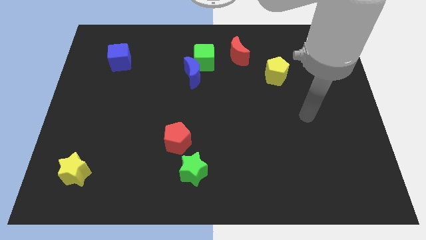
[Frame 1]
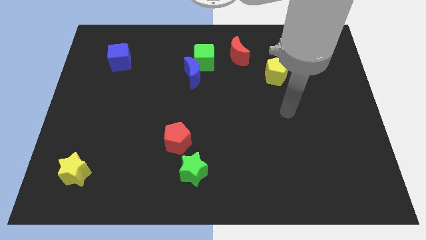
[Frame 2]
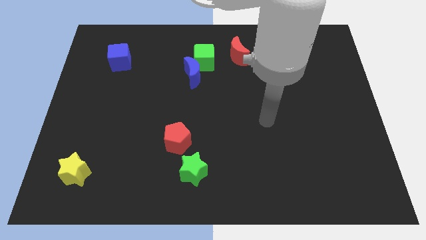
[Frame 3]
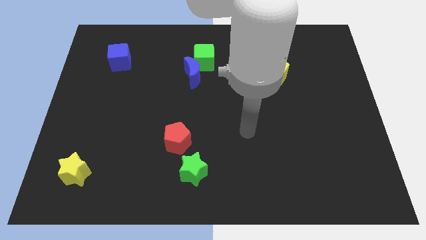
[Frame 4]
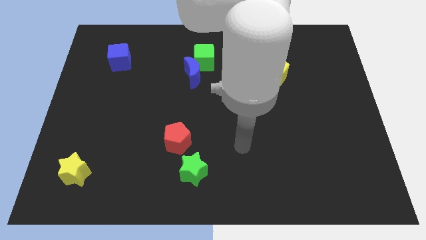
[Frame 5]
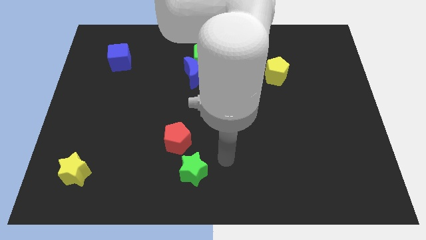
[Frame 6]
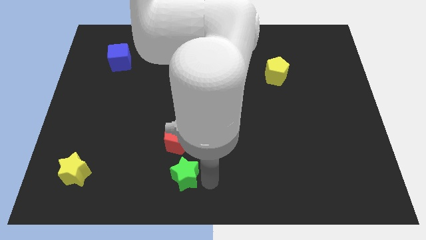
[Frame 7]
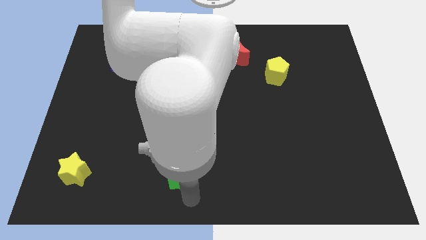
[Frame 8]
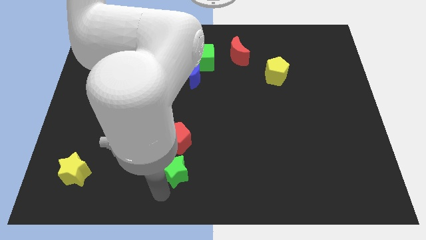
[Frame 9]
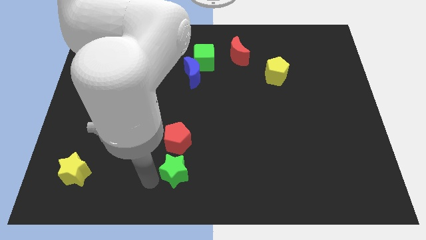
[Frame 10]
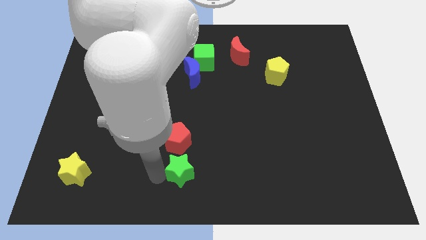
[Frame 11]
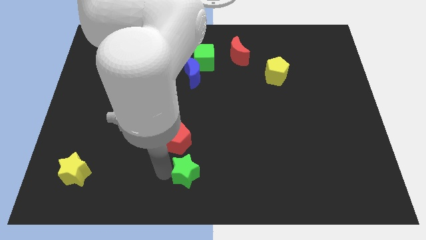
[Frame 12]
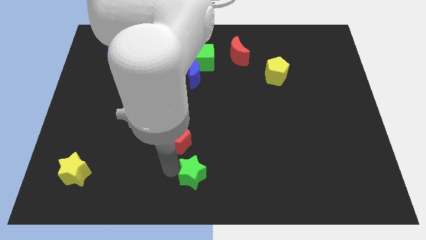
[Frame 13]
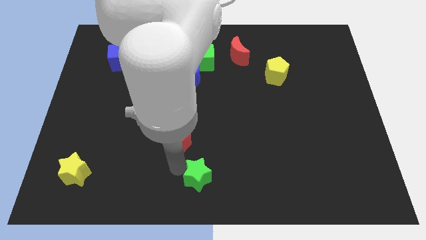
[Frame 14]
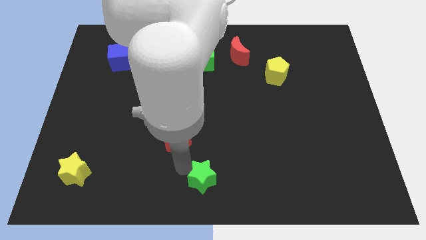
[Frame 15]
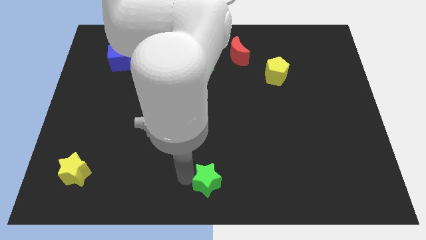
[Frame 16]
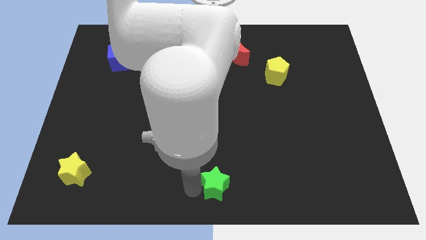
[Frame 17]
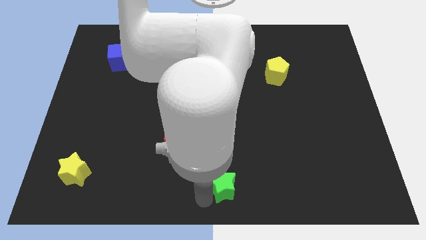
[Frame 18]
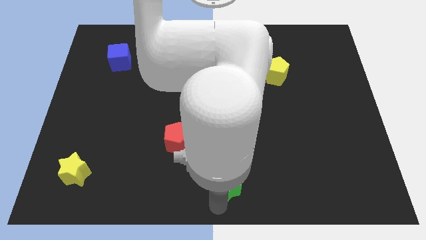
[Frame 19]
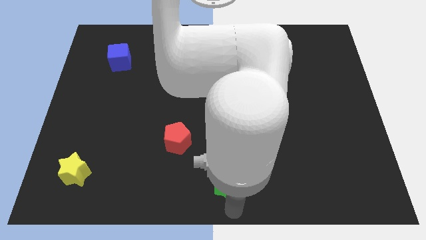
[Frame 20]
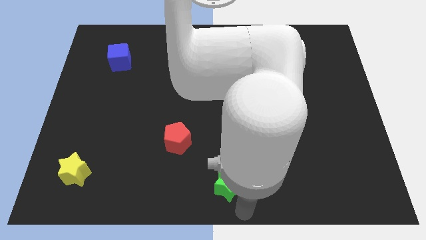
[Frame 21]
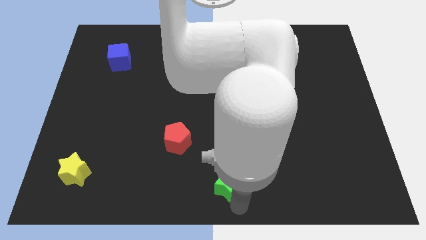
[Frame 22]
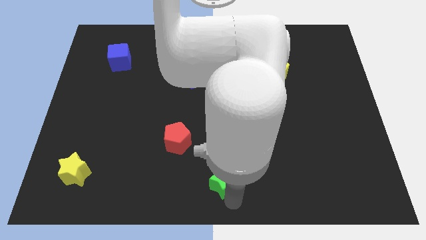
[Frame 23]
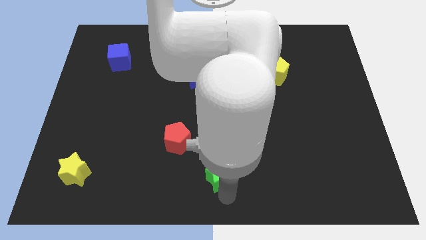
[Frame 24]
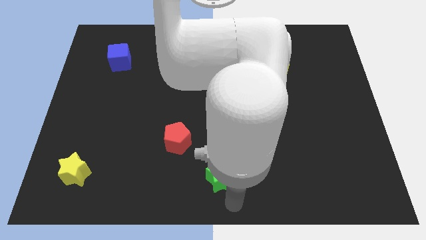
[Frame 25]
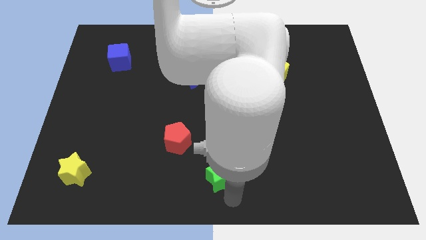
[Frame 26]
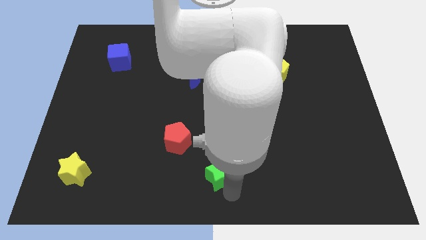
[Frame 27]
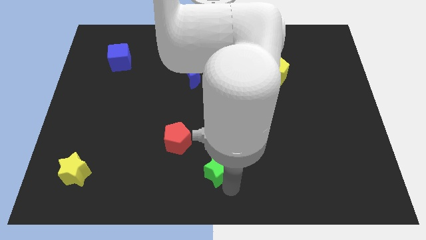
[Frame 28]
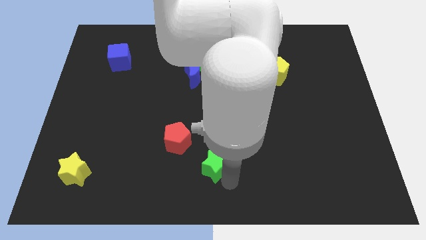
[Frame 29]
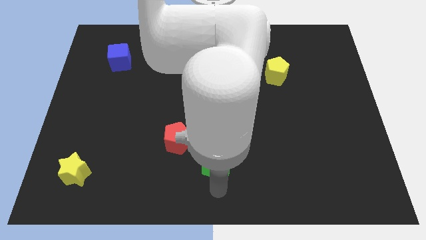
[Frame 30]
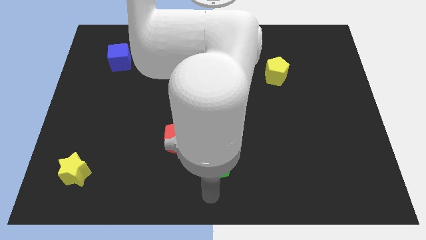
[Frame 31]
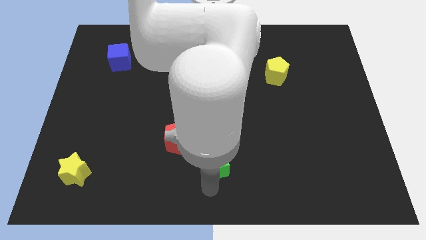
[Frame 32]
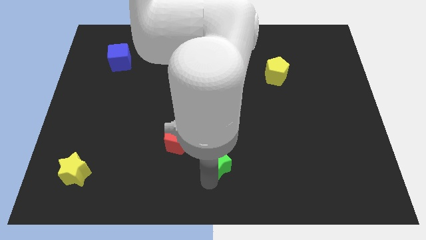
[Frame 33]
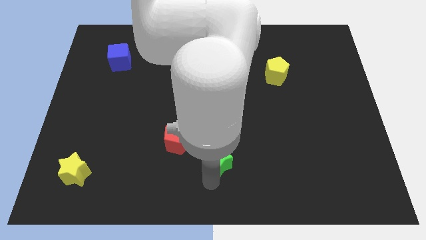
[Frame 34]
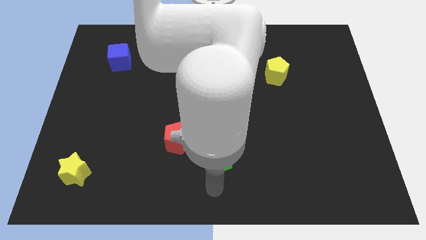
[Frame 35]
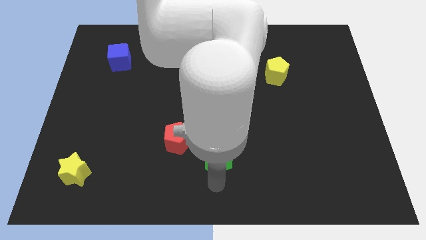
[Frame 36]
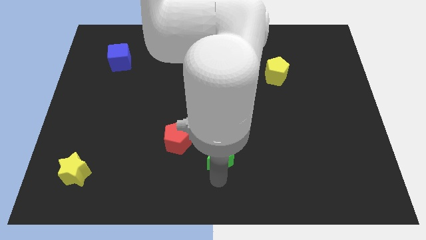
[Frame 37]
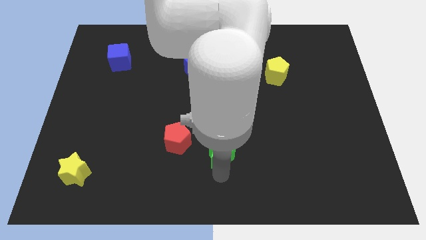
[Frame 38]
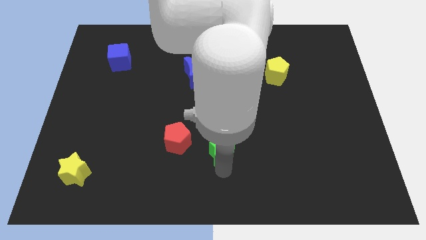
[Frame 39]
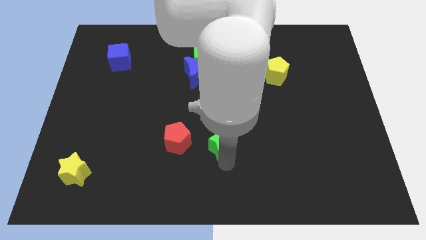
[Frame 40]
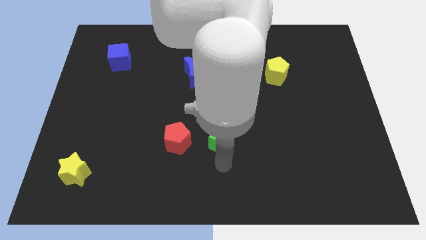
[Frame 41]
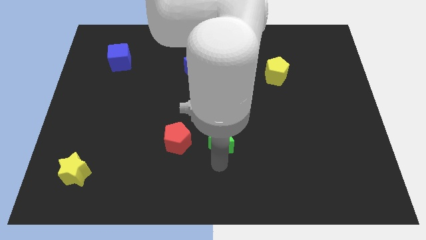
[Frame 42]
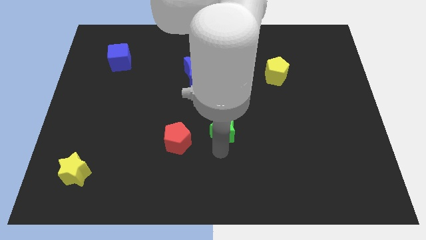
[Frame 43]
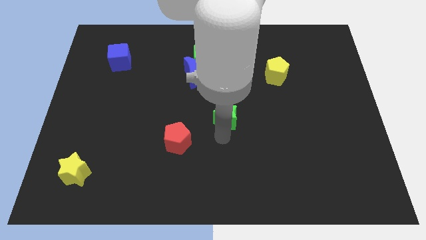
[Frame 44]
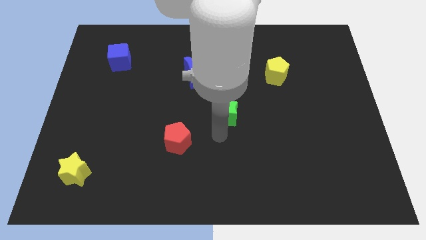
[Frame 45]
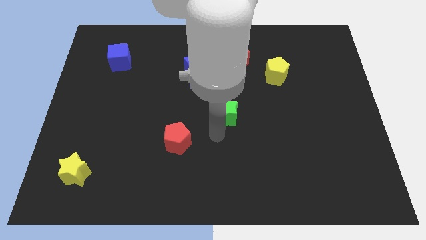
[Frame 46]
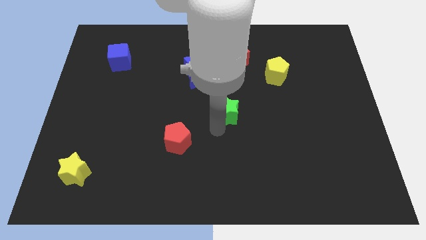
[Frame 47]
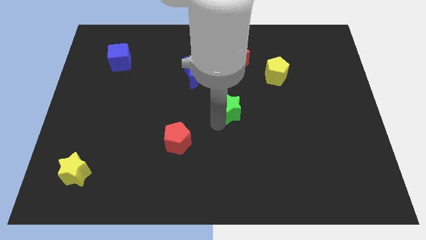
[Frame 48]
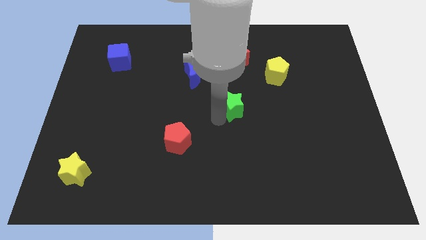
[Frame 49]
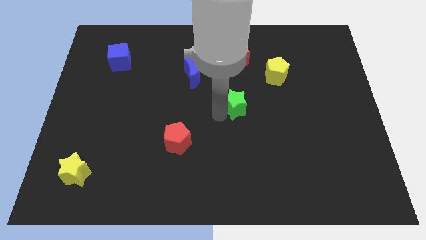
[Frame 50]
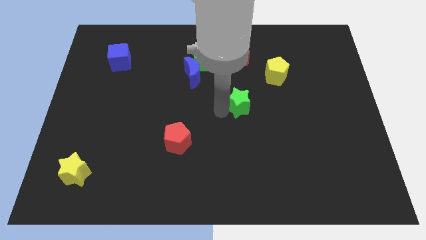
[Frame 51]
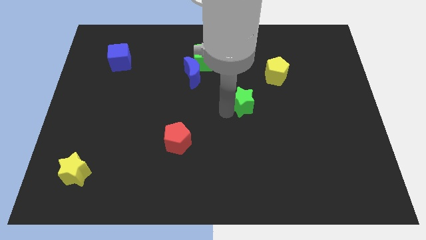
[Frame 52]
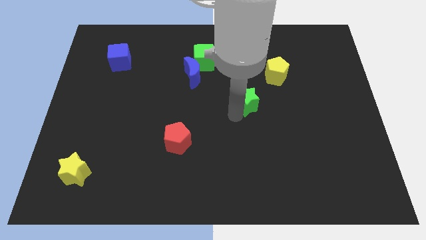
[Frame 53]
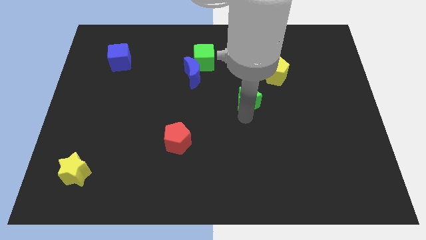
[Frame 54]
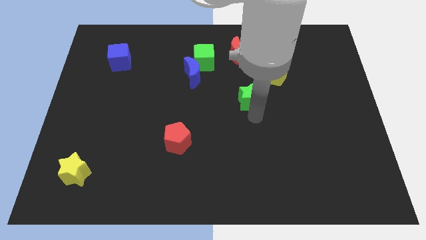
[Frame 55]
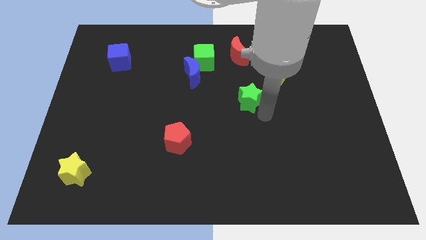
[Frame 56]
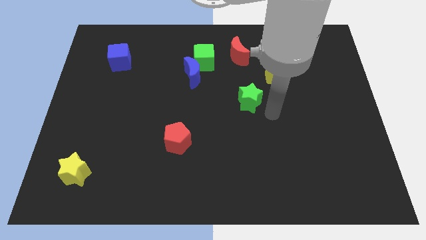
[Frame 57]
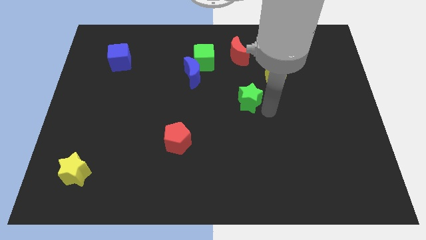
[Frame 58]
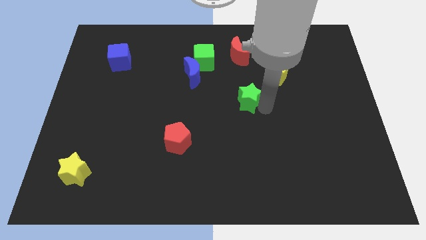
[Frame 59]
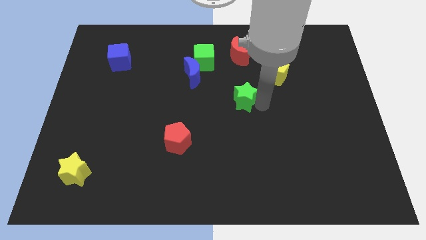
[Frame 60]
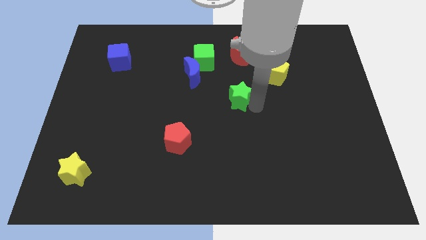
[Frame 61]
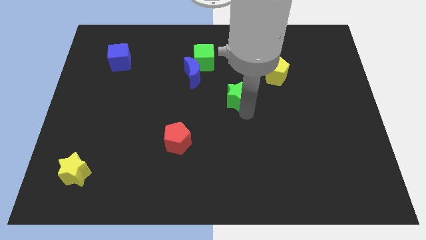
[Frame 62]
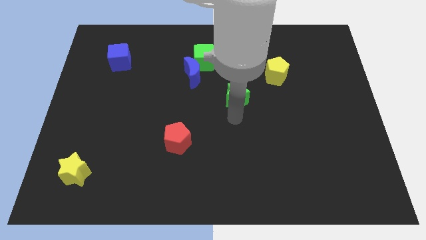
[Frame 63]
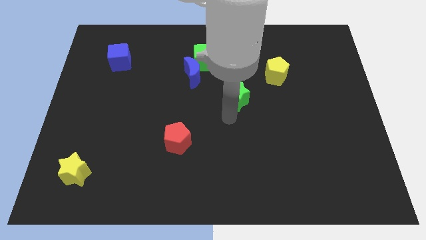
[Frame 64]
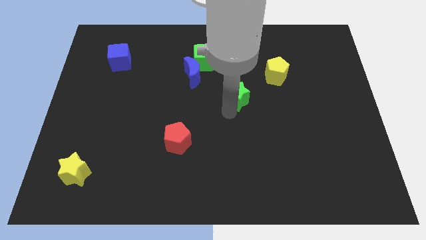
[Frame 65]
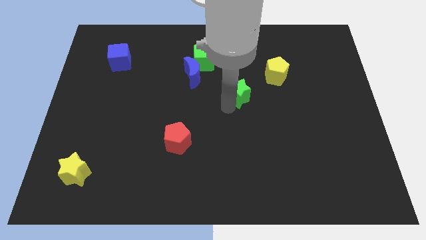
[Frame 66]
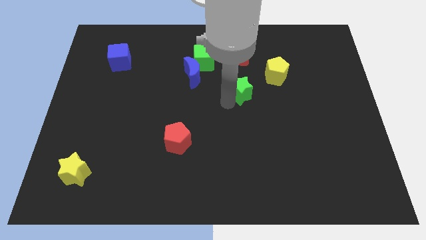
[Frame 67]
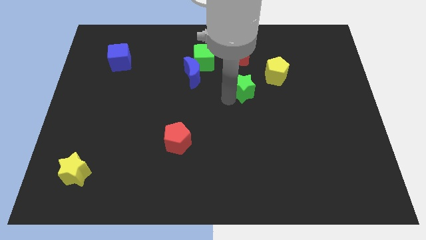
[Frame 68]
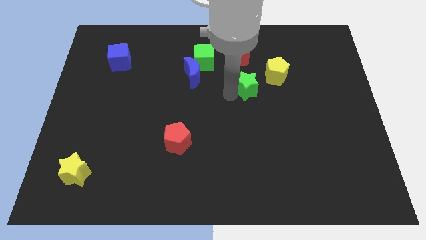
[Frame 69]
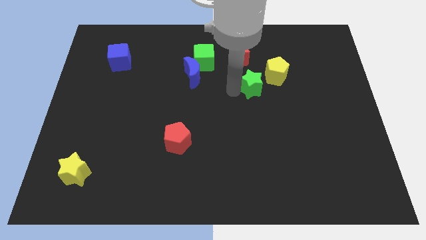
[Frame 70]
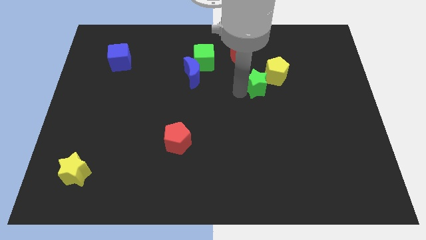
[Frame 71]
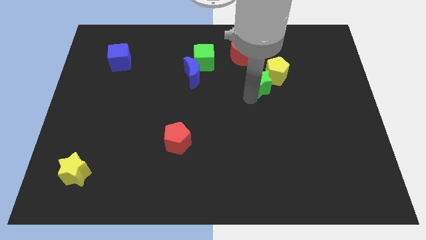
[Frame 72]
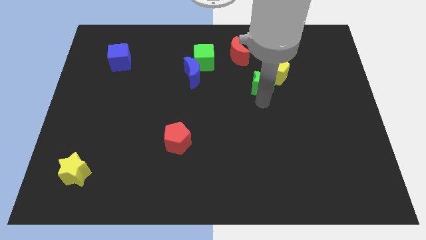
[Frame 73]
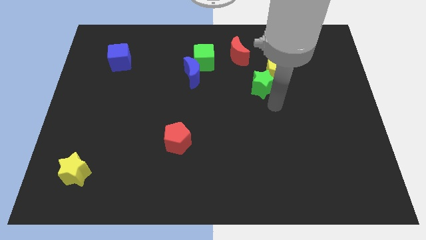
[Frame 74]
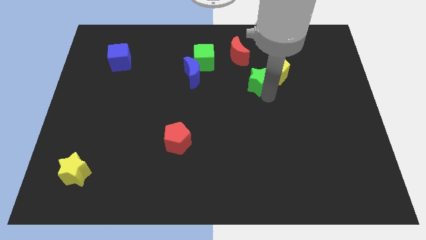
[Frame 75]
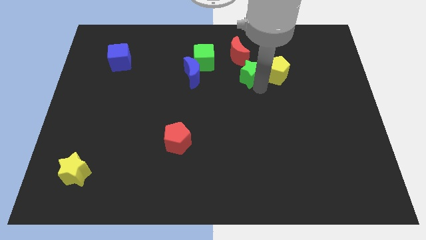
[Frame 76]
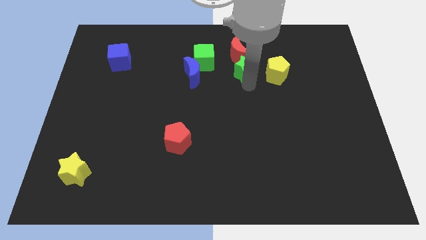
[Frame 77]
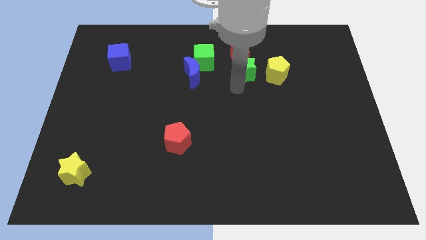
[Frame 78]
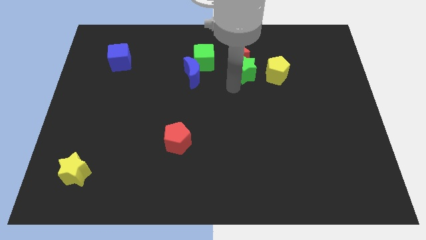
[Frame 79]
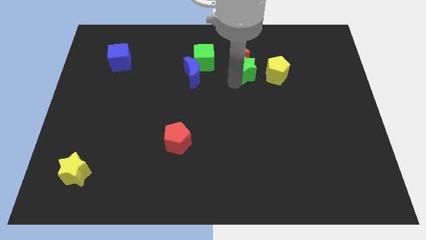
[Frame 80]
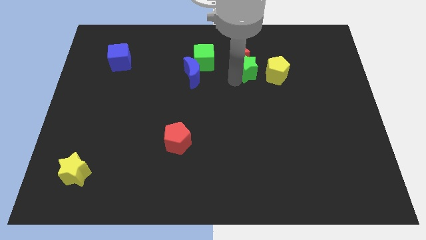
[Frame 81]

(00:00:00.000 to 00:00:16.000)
move the green star to the top left of the yellow pentagon
